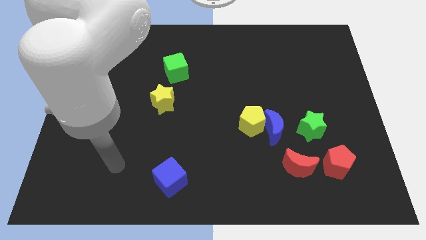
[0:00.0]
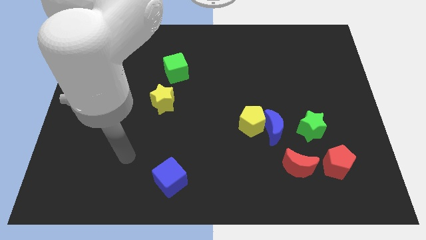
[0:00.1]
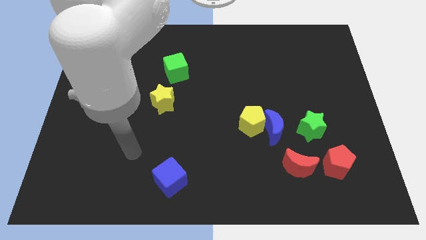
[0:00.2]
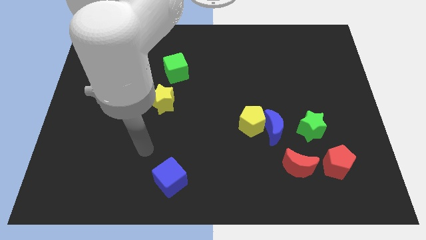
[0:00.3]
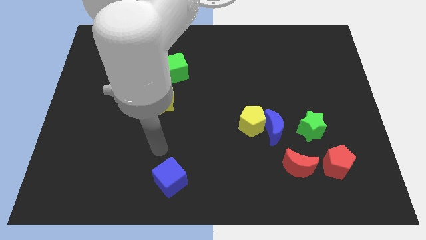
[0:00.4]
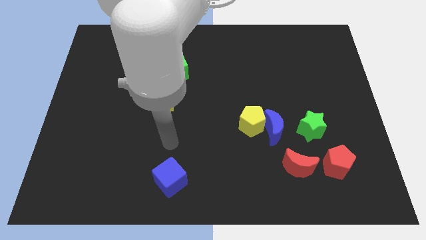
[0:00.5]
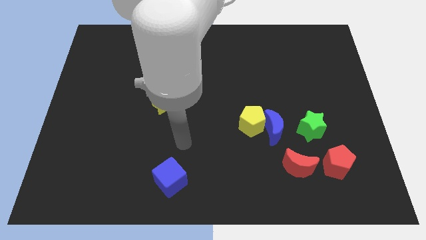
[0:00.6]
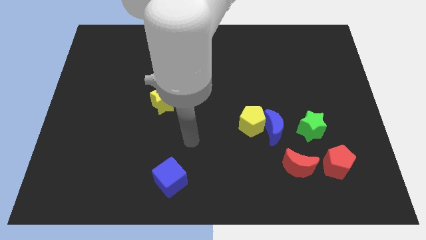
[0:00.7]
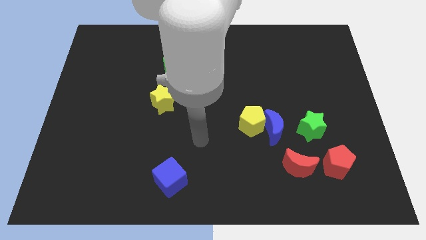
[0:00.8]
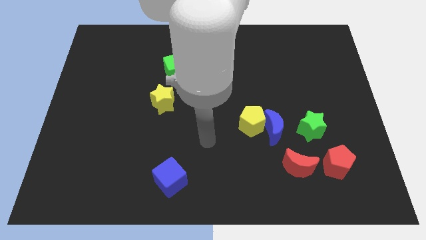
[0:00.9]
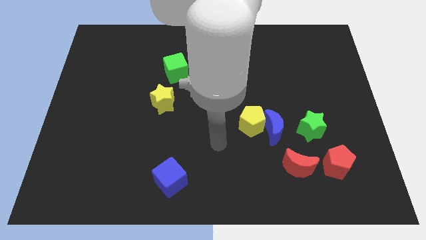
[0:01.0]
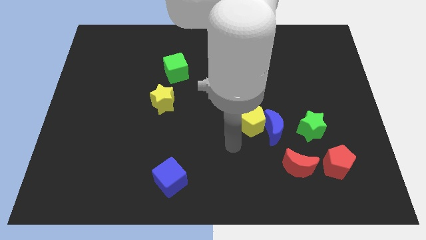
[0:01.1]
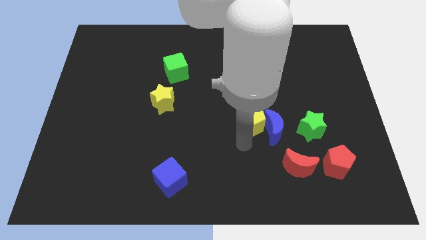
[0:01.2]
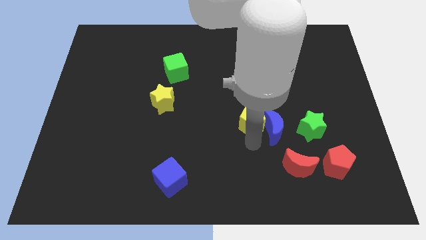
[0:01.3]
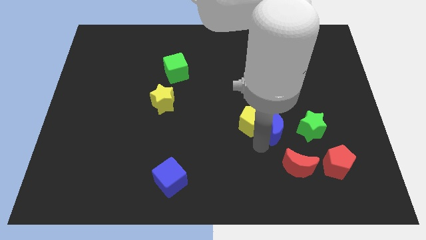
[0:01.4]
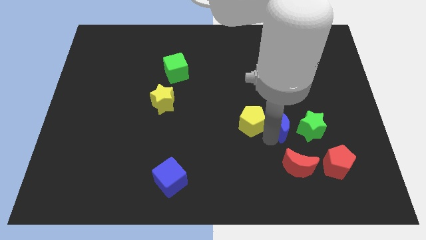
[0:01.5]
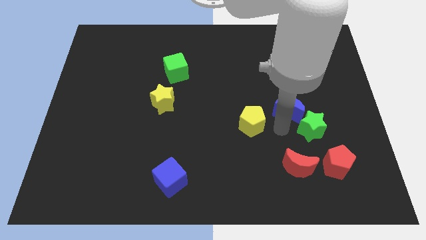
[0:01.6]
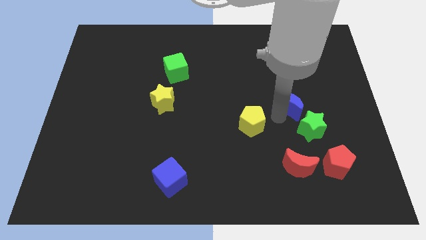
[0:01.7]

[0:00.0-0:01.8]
separate the yellow pentagon from the blue moon

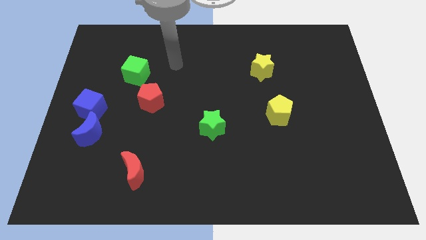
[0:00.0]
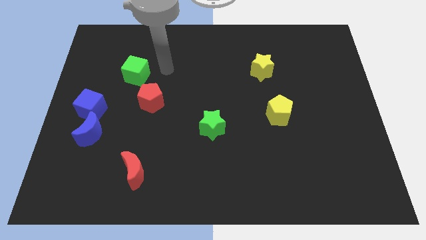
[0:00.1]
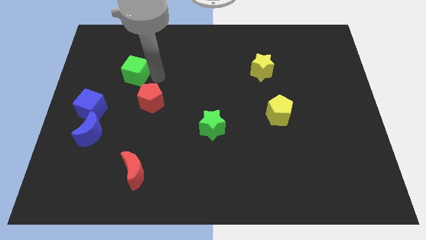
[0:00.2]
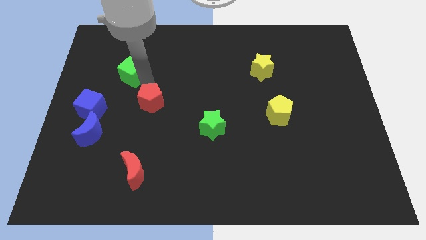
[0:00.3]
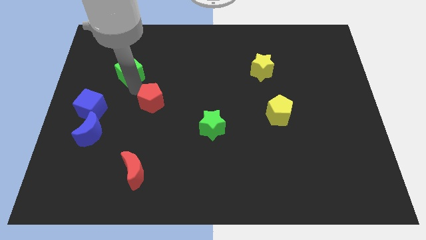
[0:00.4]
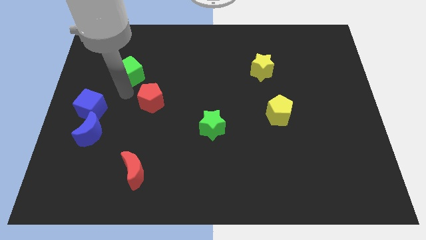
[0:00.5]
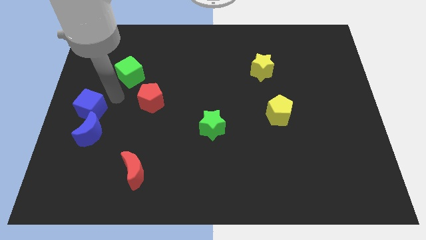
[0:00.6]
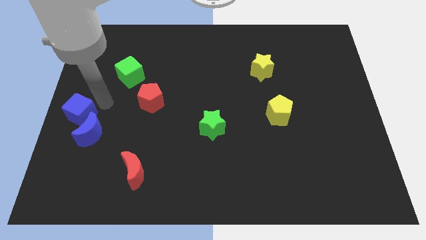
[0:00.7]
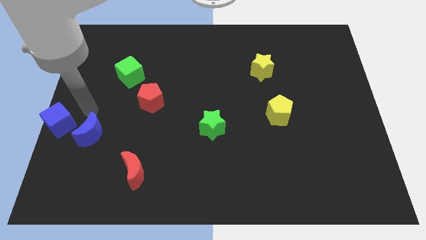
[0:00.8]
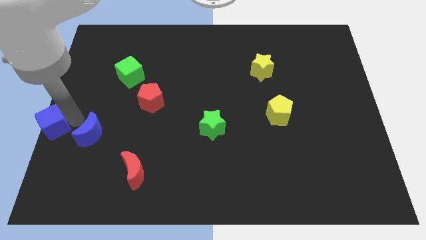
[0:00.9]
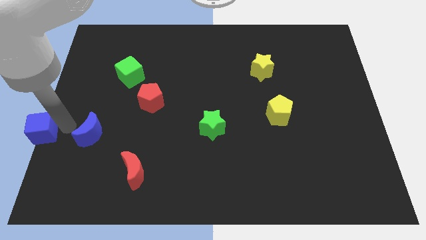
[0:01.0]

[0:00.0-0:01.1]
move the blue moon away from the blue cube

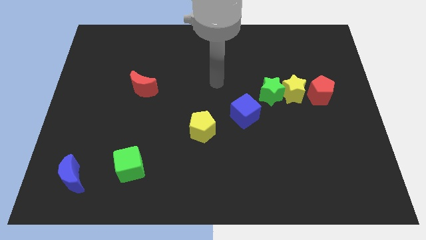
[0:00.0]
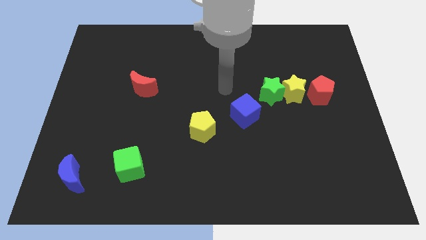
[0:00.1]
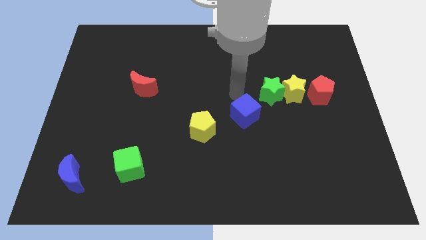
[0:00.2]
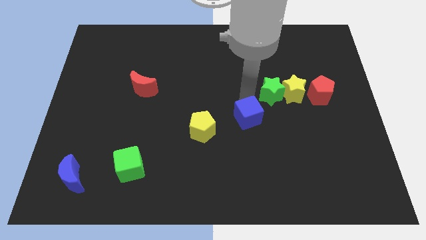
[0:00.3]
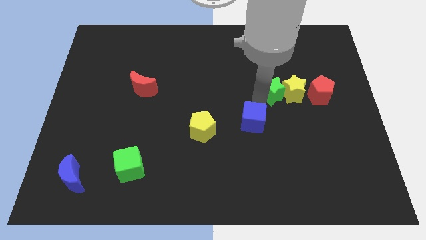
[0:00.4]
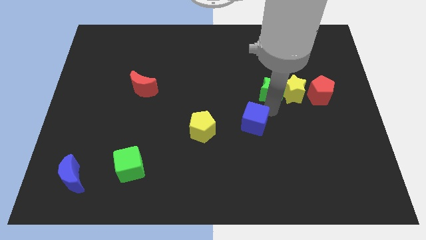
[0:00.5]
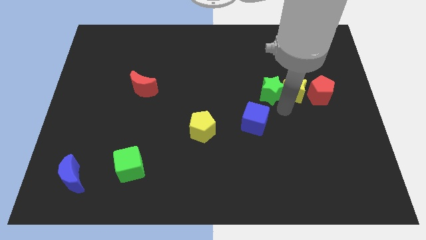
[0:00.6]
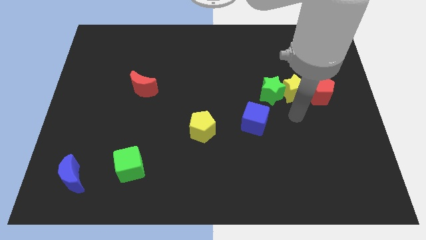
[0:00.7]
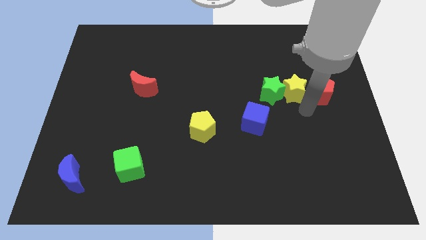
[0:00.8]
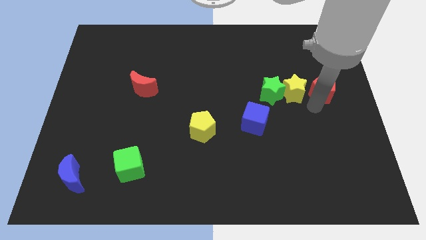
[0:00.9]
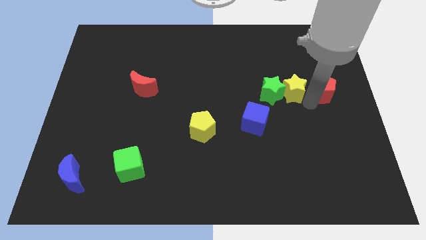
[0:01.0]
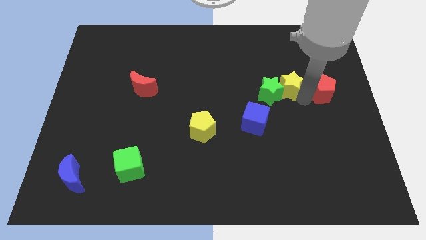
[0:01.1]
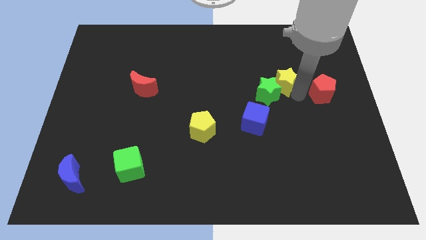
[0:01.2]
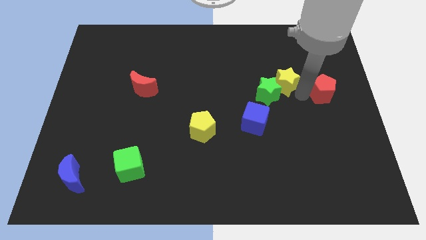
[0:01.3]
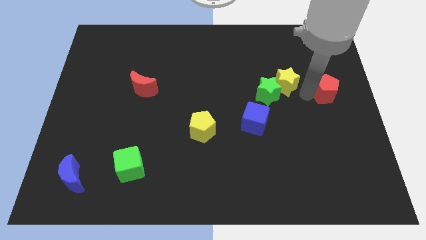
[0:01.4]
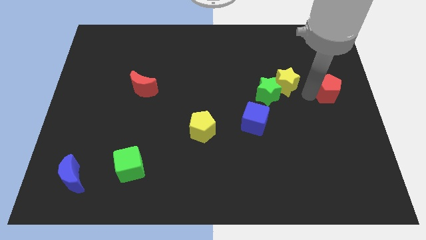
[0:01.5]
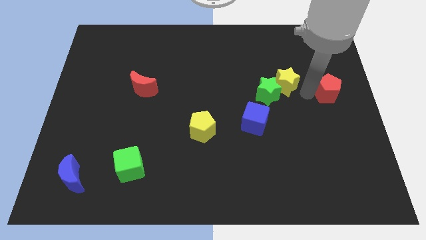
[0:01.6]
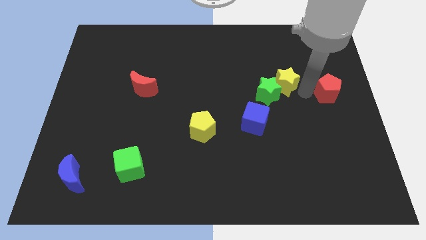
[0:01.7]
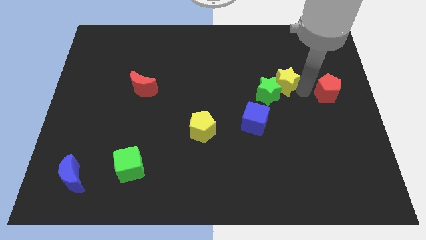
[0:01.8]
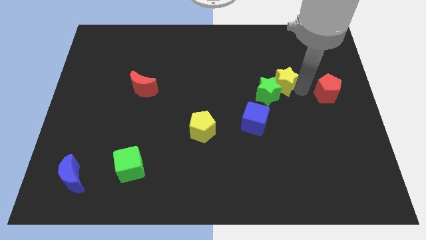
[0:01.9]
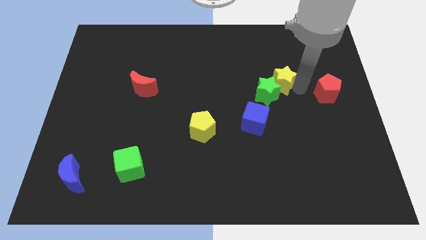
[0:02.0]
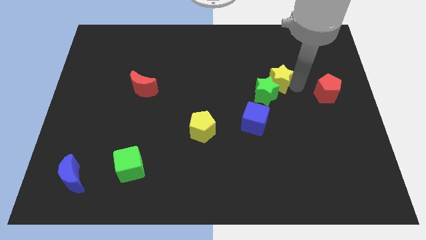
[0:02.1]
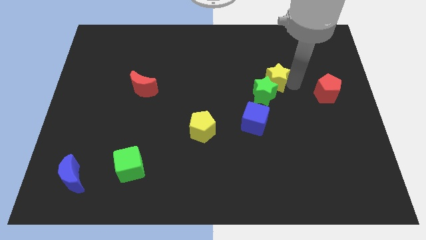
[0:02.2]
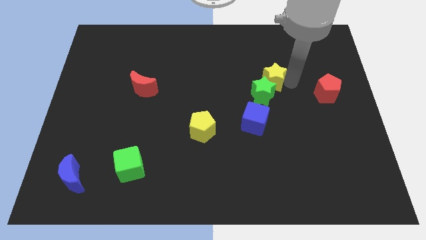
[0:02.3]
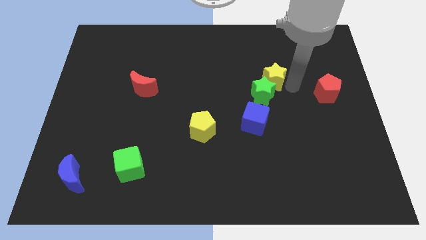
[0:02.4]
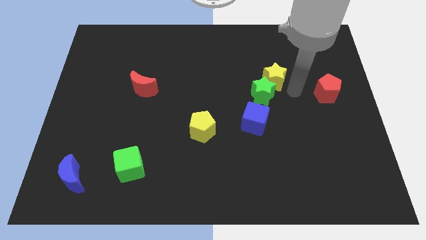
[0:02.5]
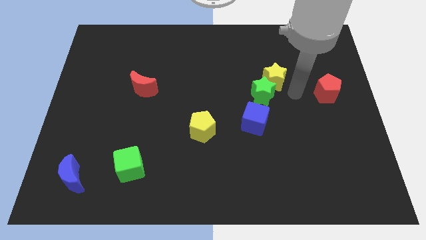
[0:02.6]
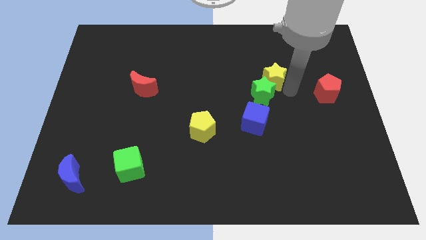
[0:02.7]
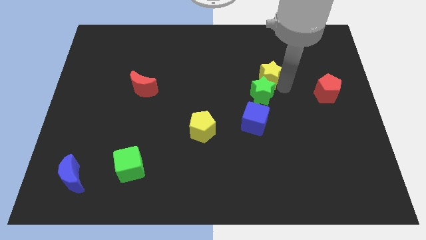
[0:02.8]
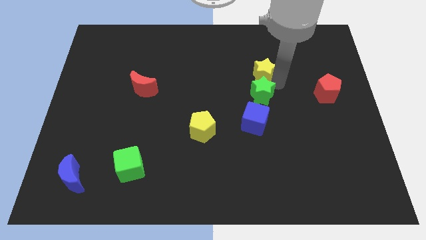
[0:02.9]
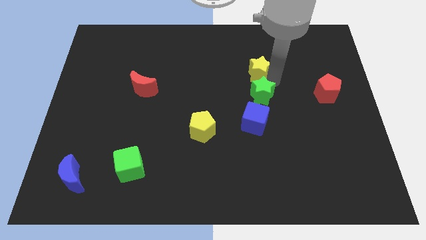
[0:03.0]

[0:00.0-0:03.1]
pull the yellow star apart from the green star and red pentagon

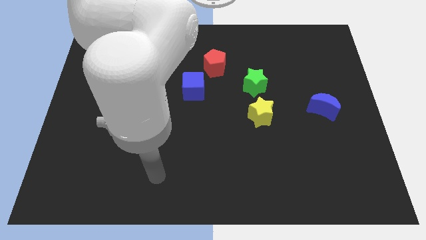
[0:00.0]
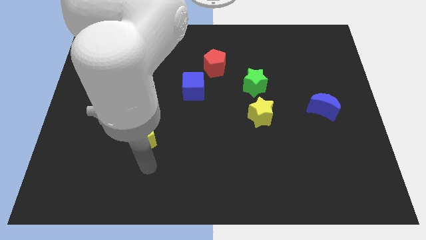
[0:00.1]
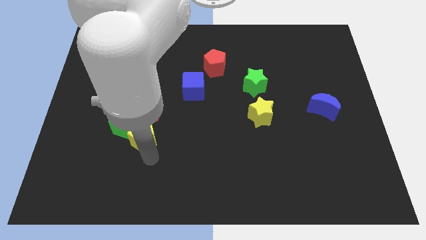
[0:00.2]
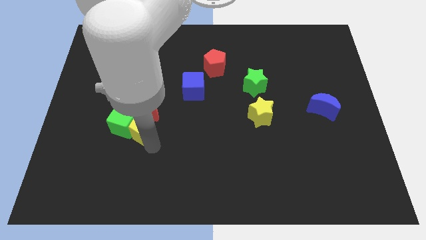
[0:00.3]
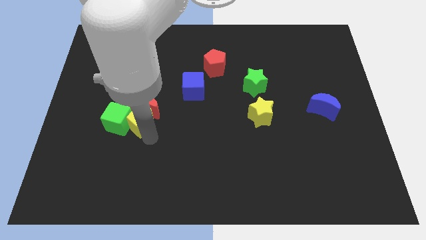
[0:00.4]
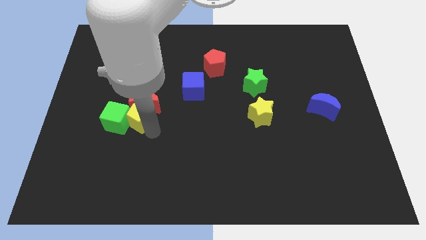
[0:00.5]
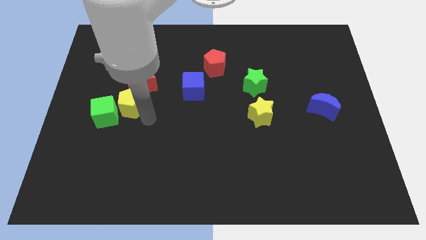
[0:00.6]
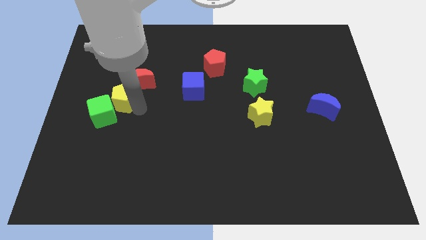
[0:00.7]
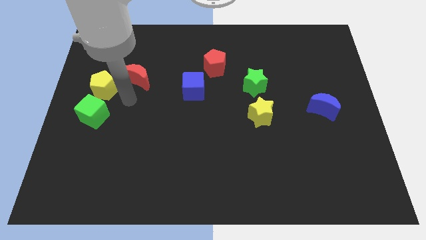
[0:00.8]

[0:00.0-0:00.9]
move the green cube away from the red moon and yellow pentagon

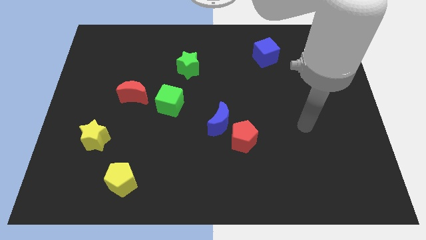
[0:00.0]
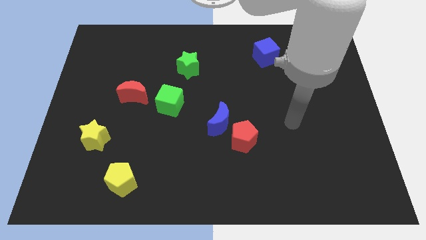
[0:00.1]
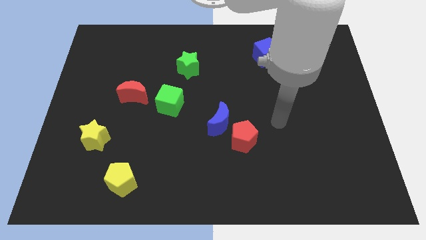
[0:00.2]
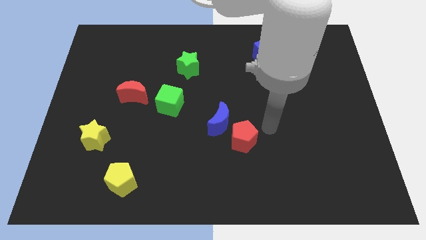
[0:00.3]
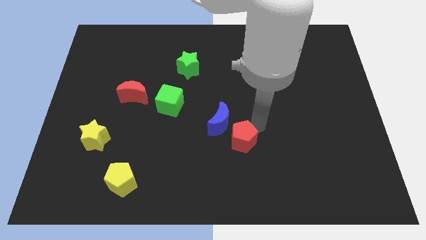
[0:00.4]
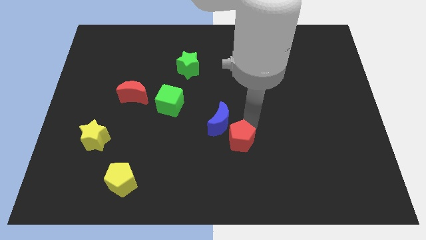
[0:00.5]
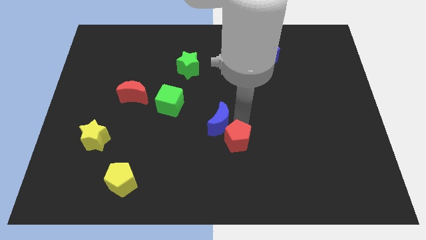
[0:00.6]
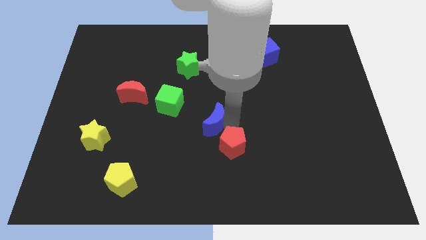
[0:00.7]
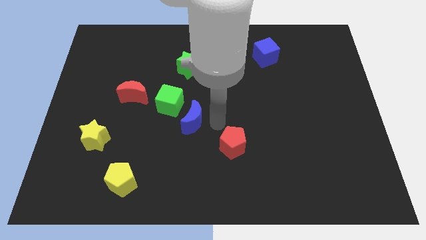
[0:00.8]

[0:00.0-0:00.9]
pull the red pentagon apart from the blue moon

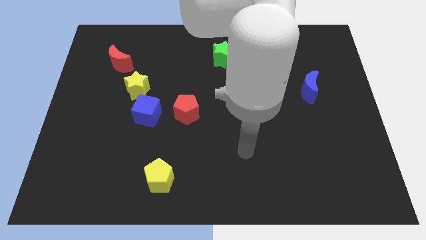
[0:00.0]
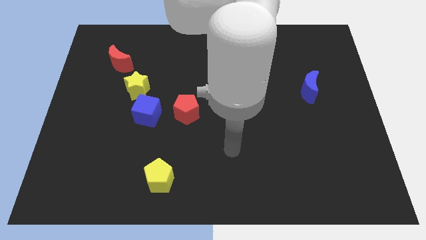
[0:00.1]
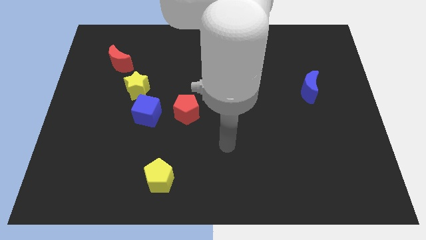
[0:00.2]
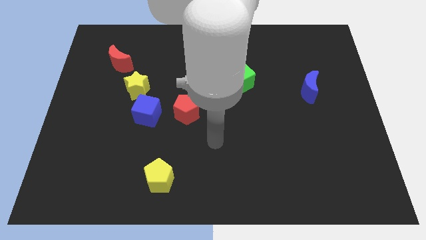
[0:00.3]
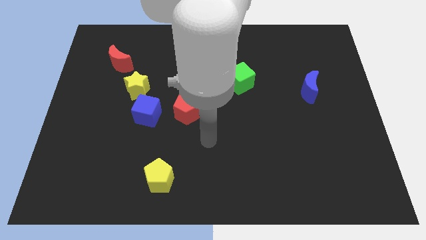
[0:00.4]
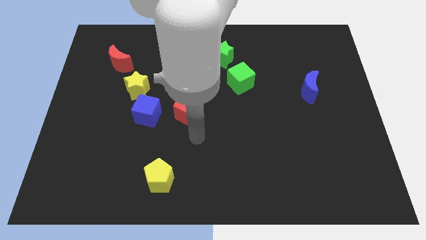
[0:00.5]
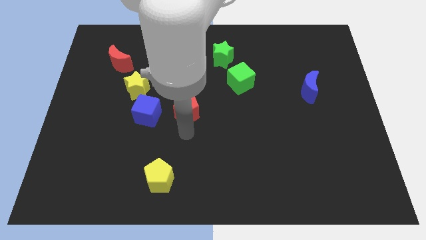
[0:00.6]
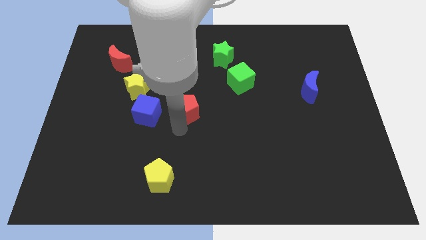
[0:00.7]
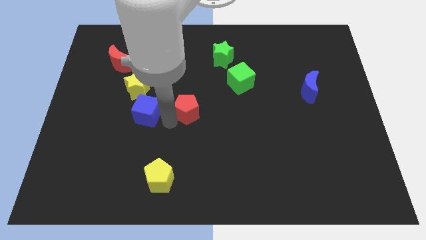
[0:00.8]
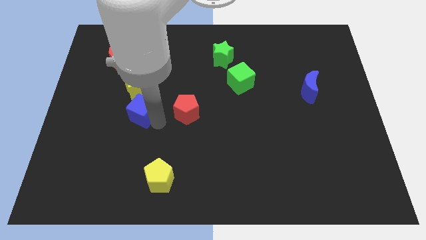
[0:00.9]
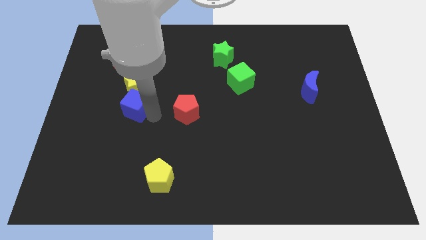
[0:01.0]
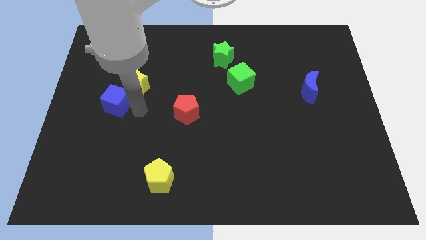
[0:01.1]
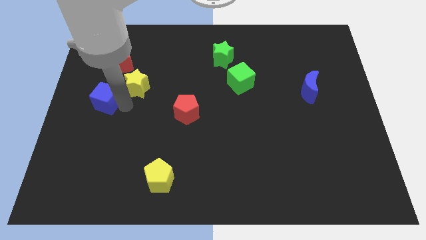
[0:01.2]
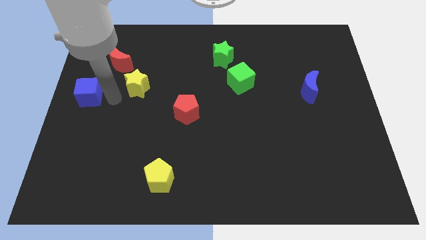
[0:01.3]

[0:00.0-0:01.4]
pull the yellow star apart from the blue cube
